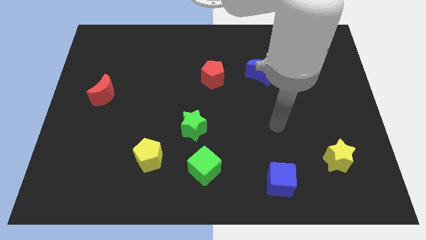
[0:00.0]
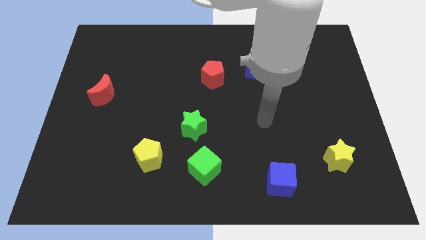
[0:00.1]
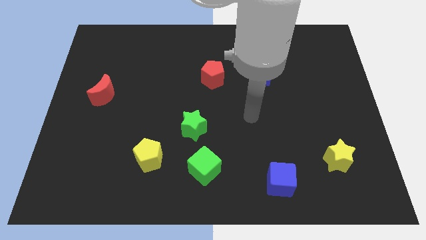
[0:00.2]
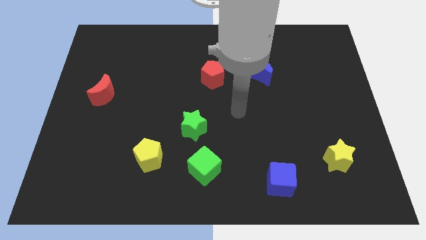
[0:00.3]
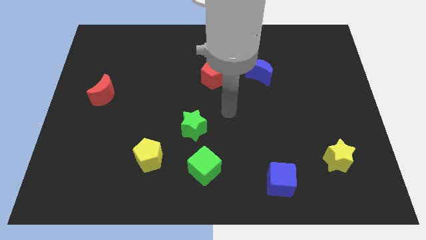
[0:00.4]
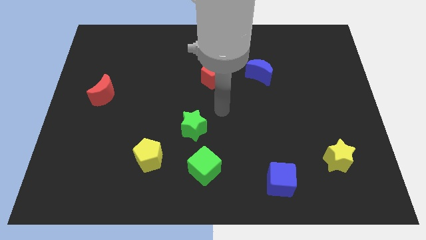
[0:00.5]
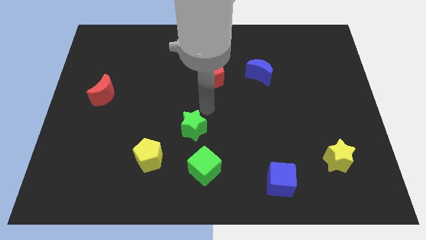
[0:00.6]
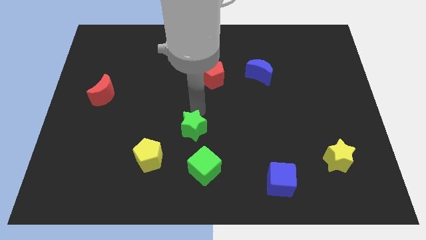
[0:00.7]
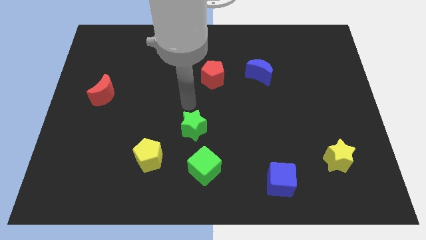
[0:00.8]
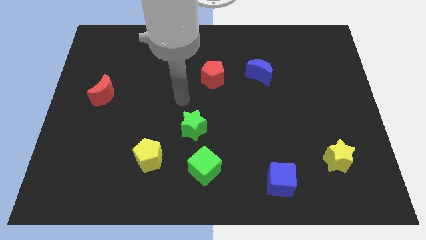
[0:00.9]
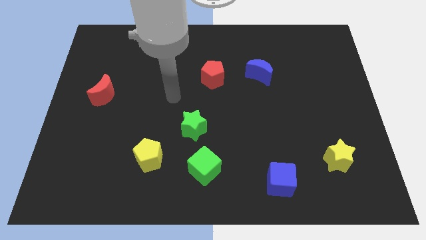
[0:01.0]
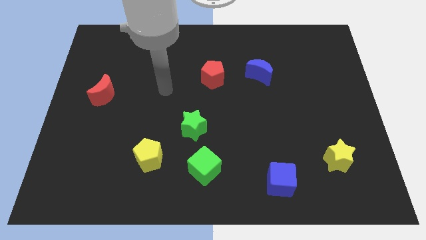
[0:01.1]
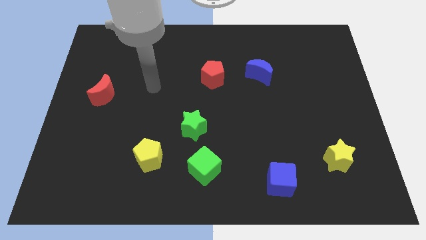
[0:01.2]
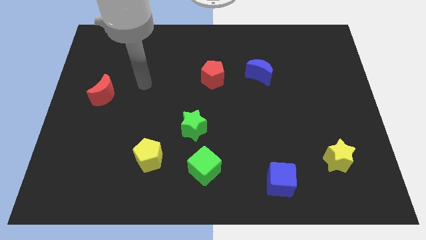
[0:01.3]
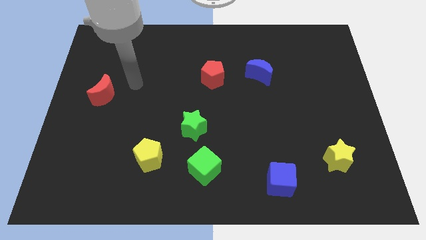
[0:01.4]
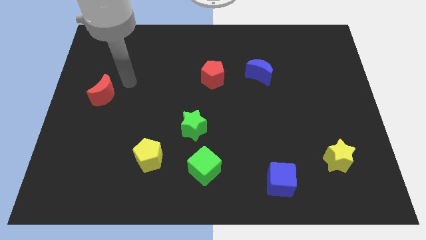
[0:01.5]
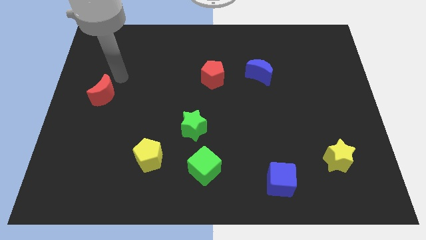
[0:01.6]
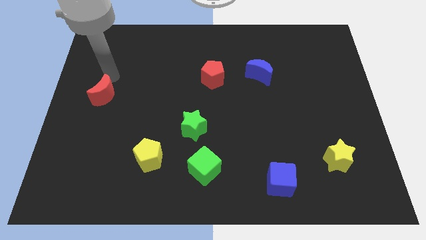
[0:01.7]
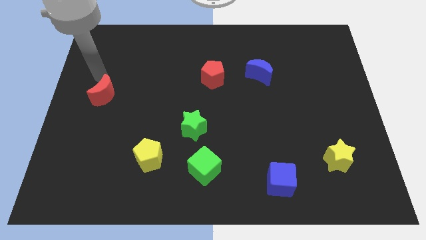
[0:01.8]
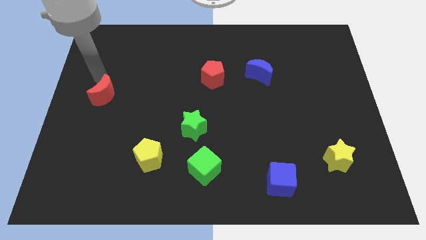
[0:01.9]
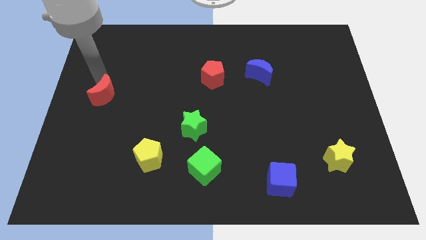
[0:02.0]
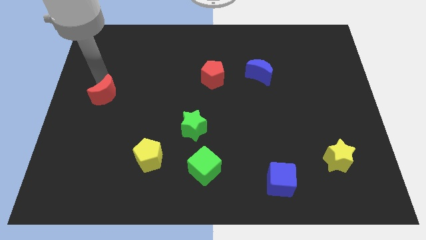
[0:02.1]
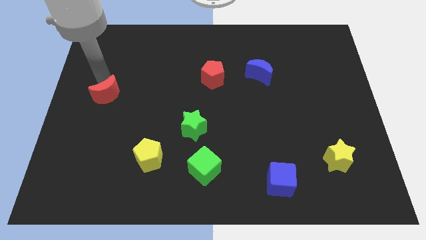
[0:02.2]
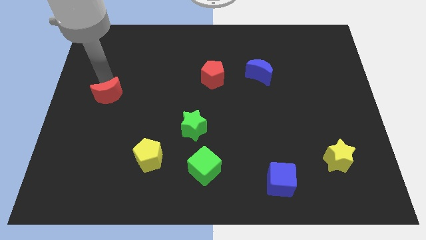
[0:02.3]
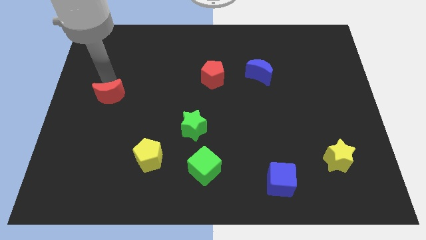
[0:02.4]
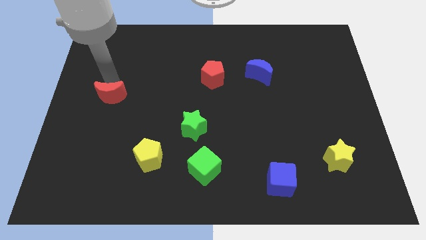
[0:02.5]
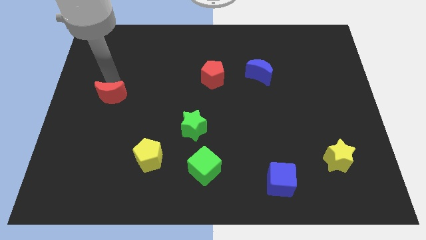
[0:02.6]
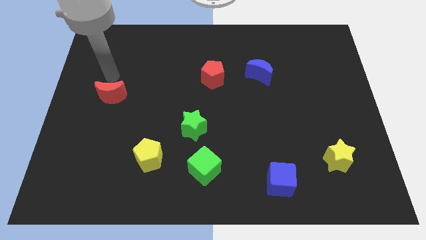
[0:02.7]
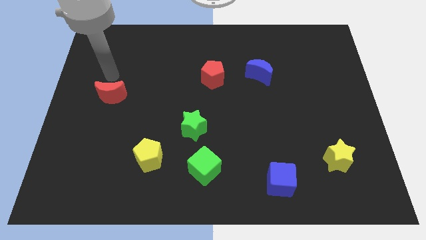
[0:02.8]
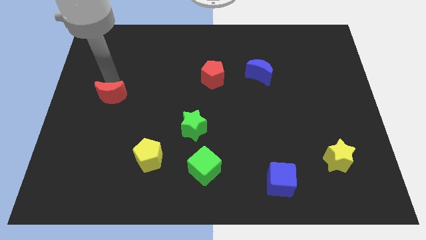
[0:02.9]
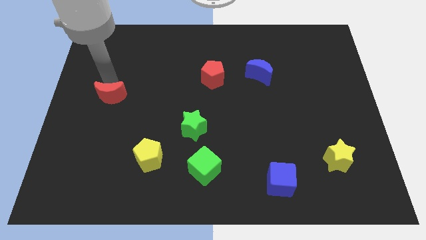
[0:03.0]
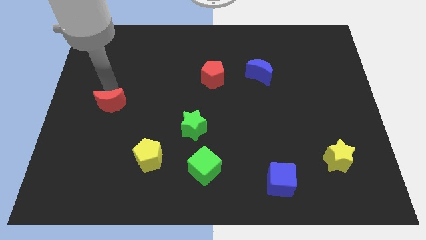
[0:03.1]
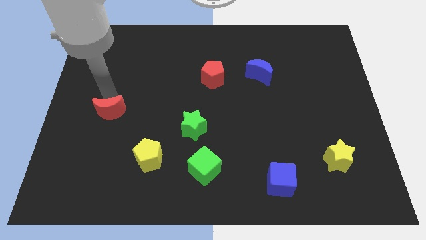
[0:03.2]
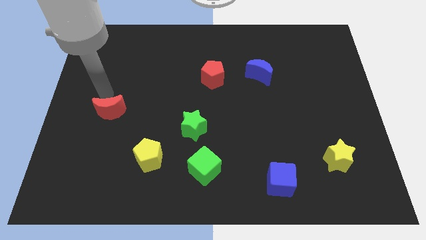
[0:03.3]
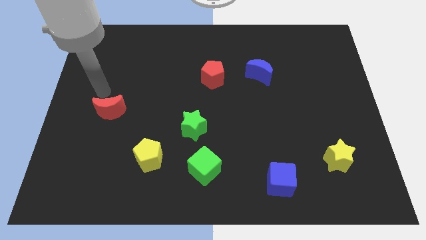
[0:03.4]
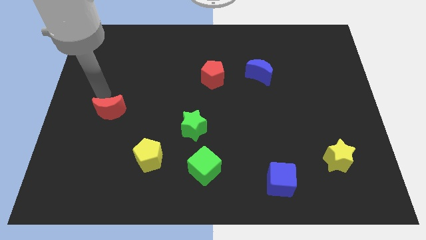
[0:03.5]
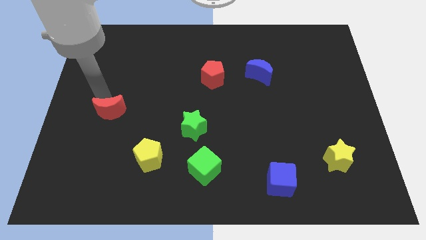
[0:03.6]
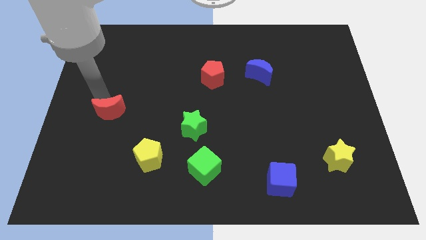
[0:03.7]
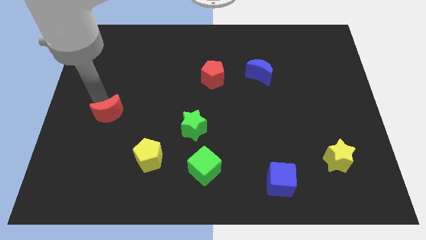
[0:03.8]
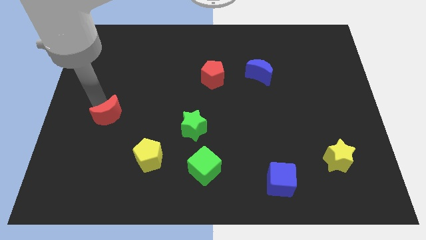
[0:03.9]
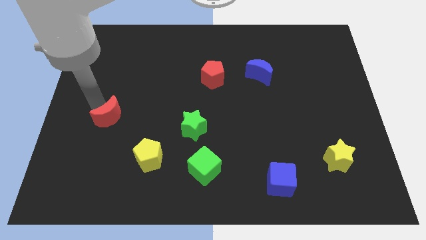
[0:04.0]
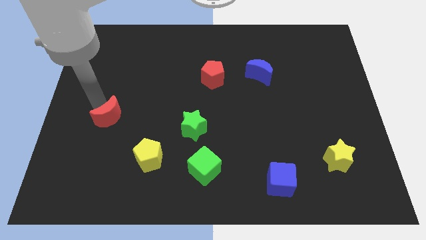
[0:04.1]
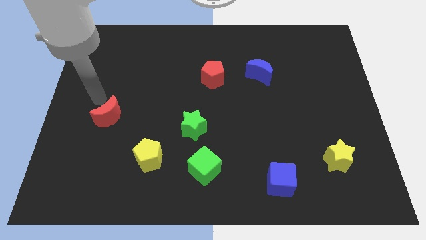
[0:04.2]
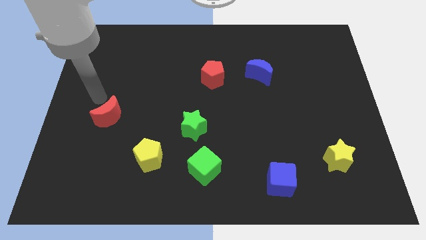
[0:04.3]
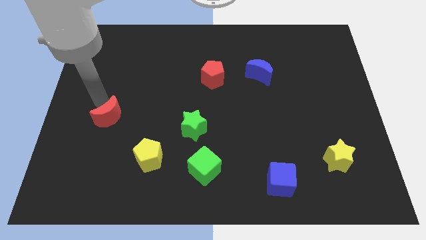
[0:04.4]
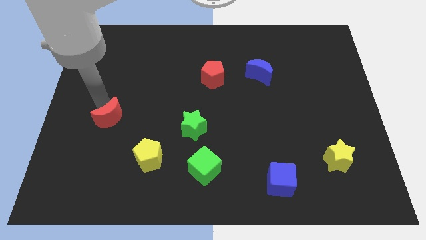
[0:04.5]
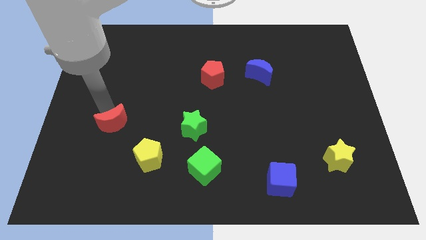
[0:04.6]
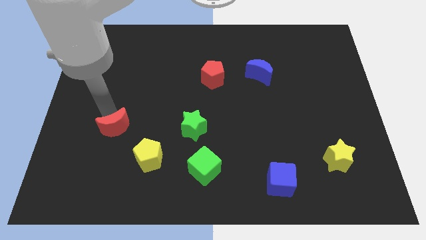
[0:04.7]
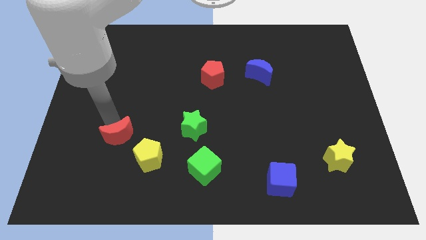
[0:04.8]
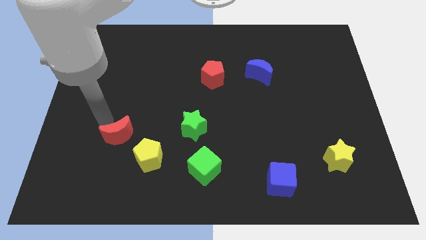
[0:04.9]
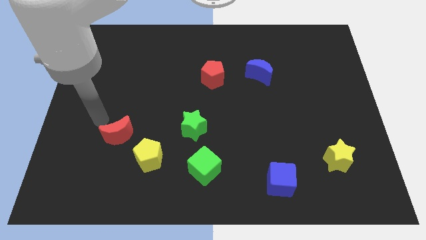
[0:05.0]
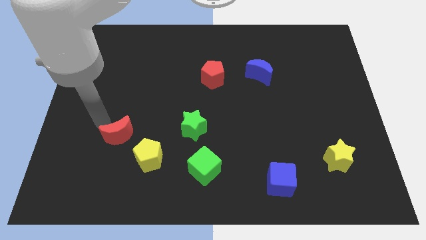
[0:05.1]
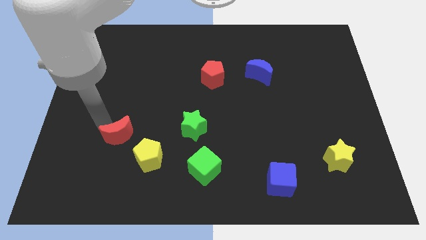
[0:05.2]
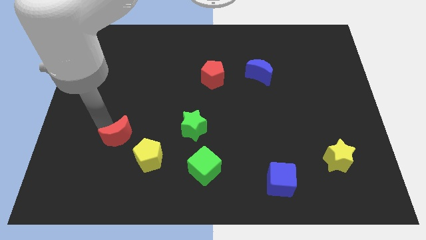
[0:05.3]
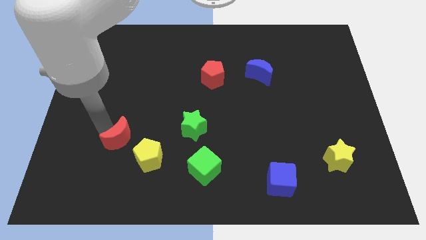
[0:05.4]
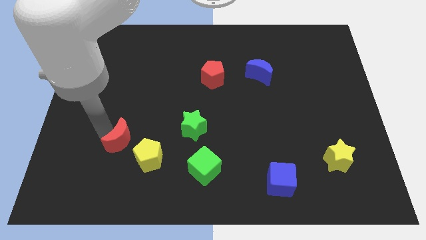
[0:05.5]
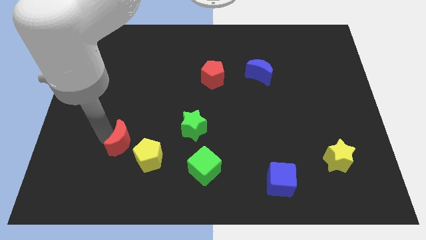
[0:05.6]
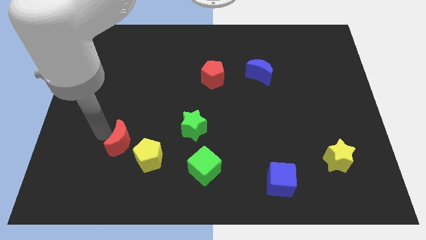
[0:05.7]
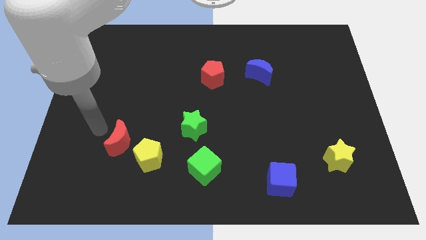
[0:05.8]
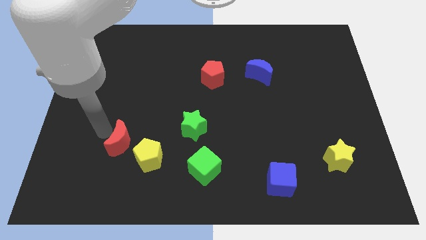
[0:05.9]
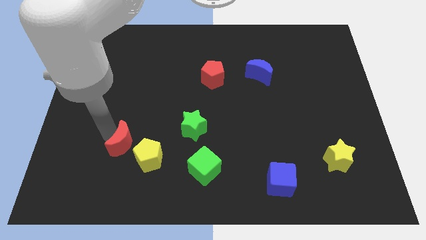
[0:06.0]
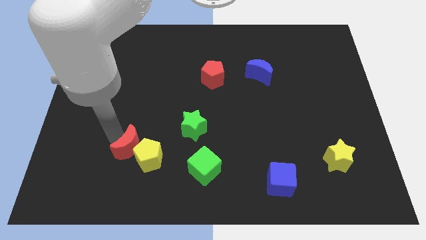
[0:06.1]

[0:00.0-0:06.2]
move the red moon close to the yellow pentagon

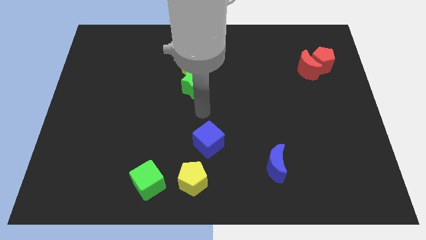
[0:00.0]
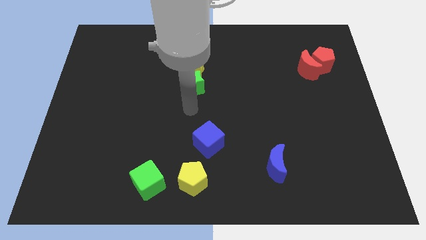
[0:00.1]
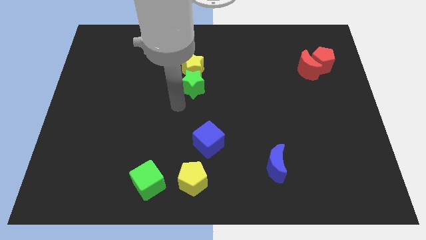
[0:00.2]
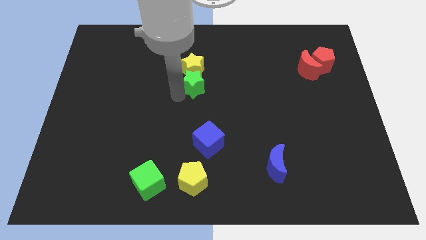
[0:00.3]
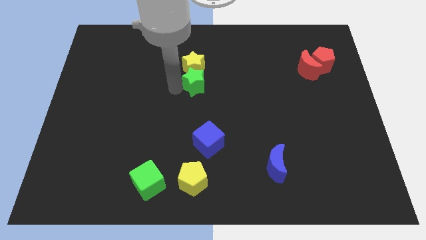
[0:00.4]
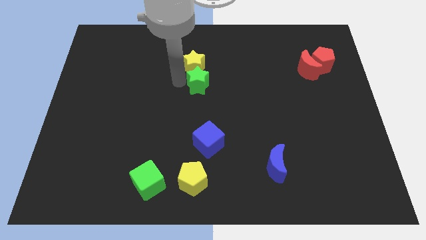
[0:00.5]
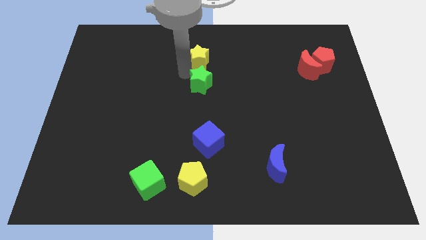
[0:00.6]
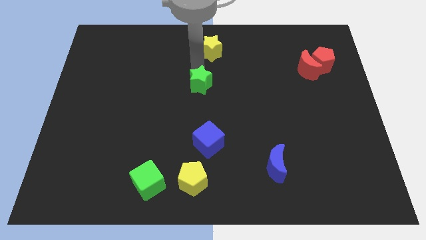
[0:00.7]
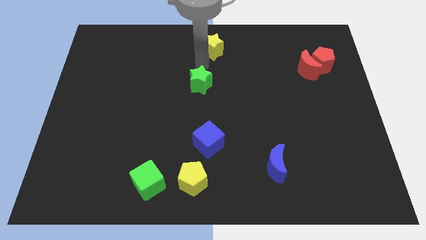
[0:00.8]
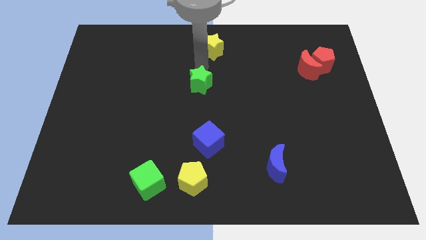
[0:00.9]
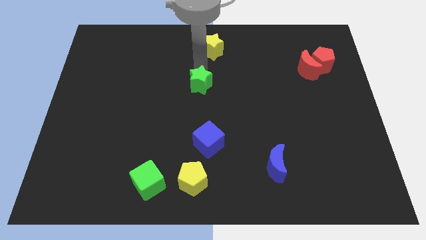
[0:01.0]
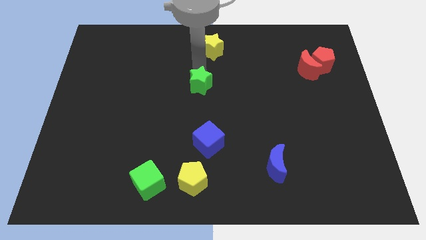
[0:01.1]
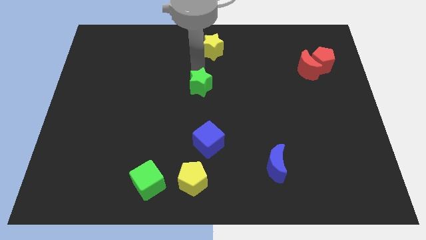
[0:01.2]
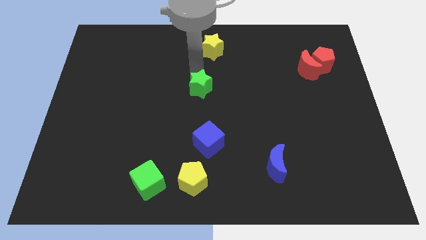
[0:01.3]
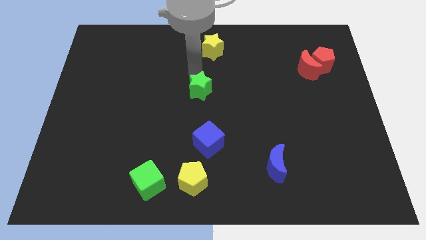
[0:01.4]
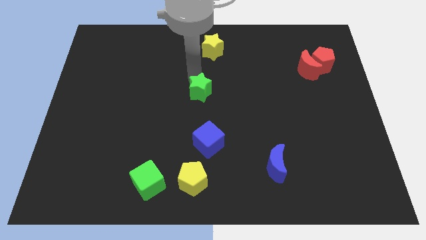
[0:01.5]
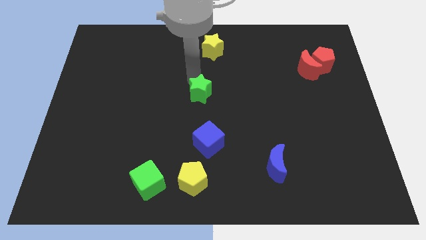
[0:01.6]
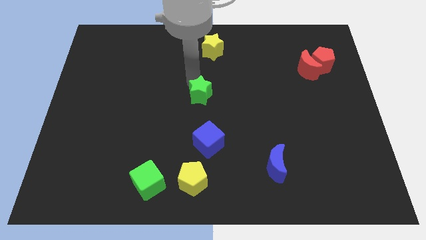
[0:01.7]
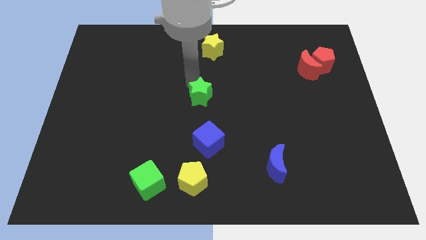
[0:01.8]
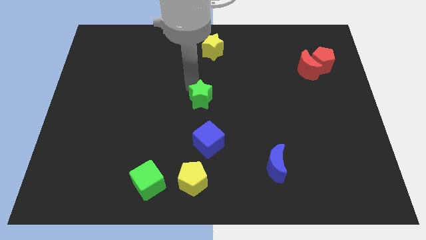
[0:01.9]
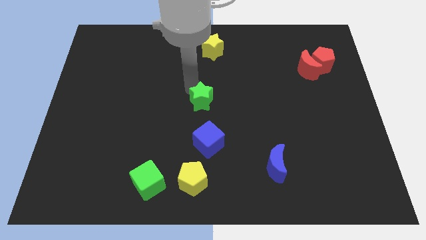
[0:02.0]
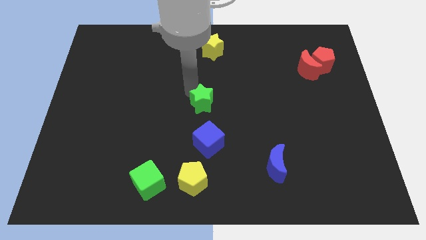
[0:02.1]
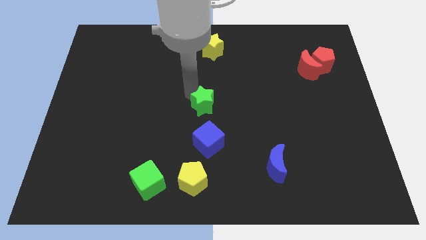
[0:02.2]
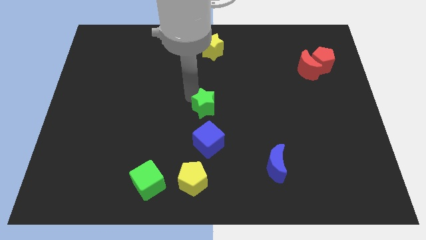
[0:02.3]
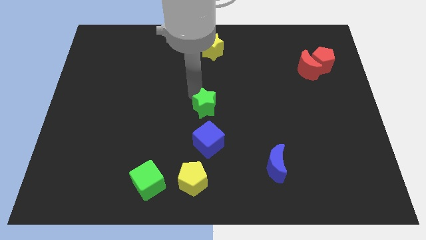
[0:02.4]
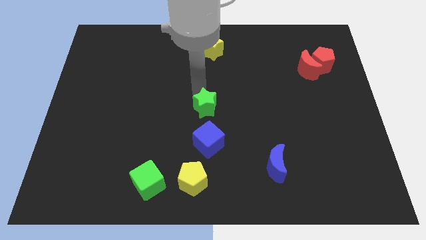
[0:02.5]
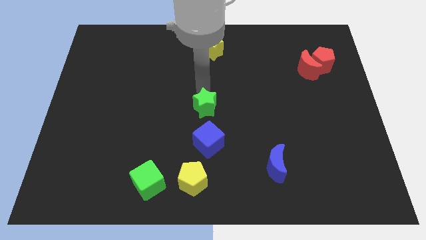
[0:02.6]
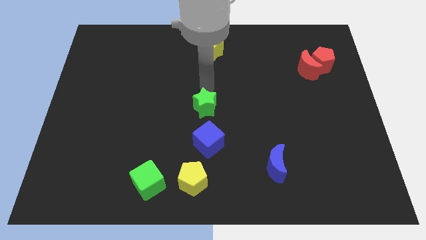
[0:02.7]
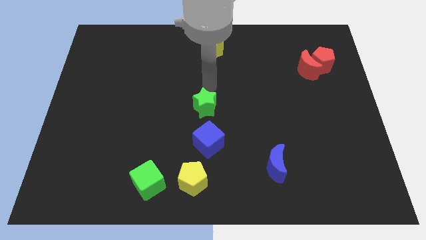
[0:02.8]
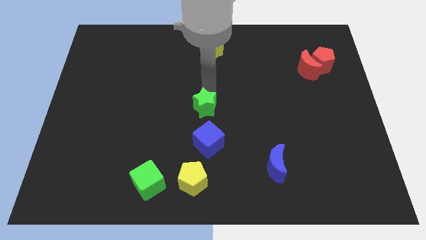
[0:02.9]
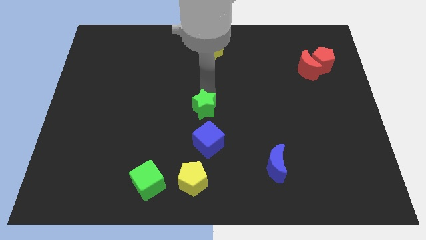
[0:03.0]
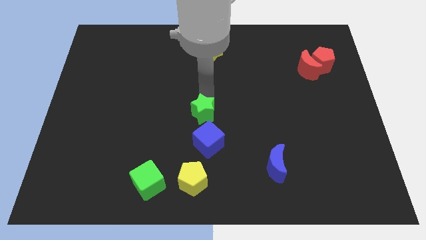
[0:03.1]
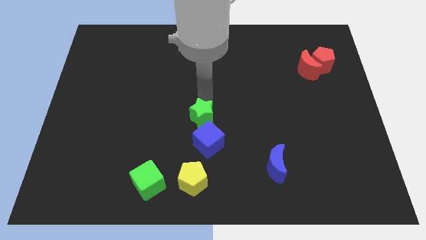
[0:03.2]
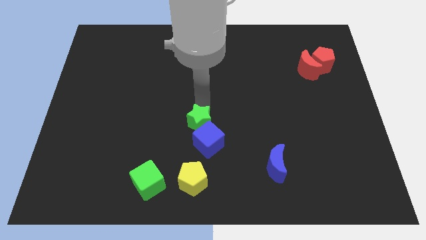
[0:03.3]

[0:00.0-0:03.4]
put the green star next to the blue cube
